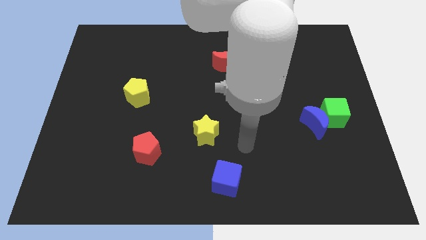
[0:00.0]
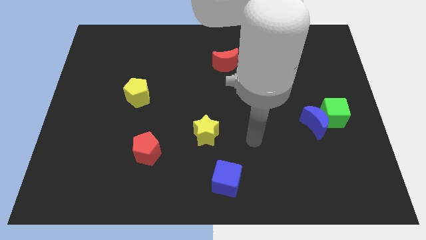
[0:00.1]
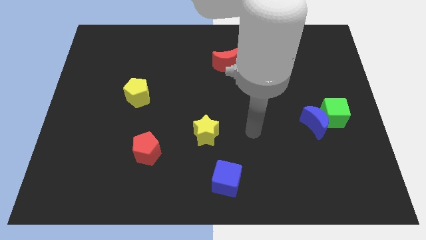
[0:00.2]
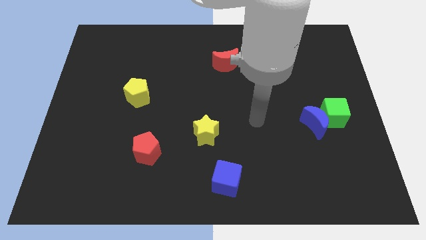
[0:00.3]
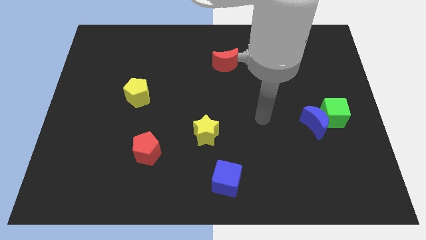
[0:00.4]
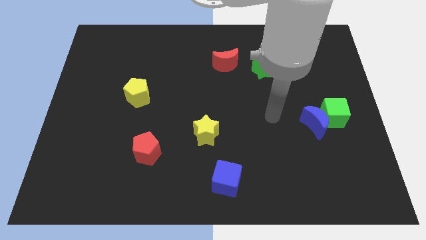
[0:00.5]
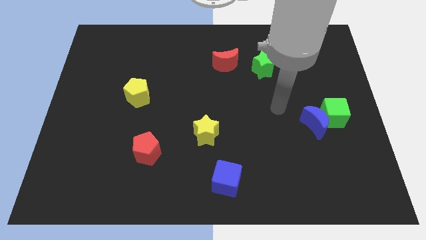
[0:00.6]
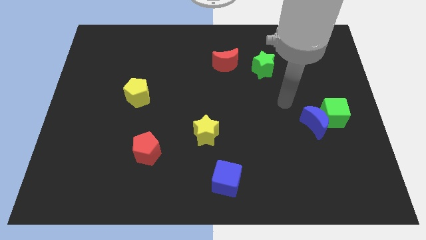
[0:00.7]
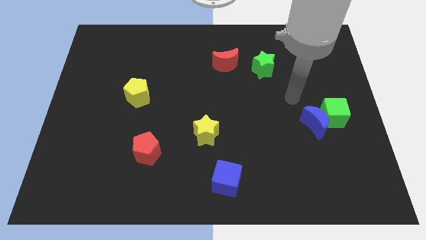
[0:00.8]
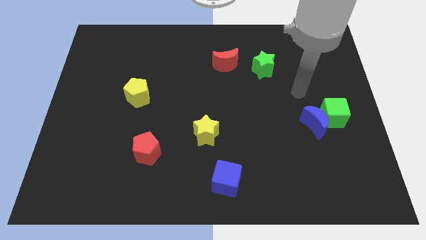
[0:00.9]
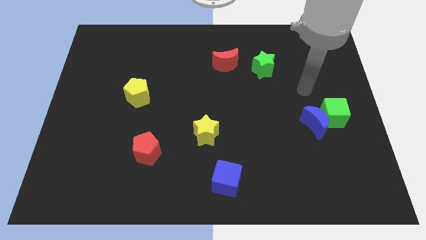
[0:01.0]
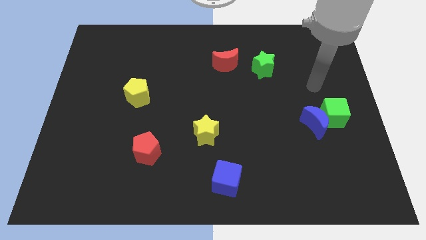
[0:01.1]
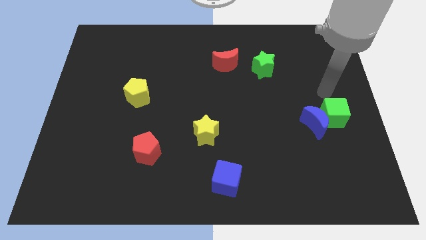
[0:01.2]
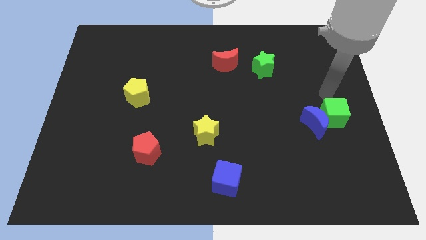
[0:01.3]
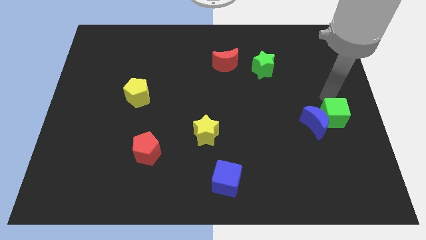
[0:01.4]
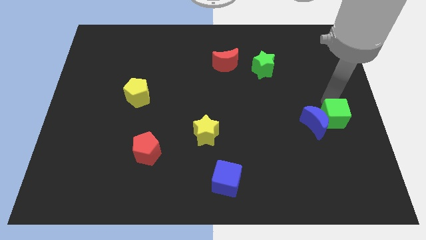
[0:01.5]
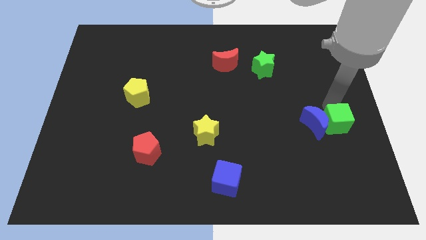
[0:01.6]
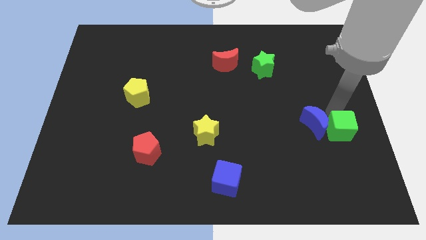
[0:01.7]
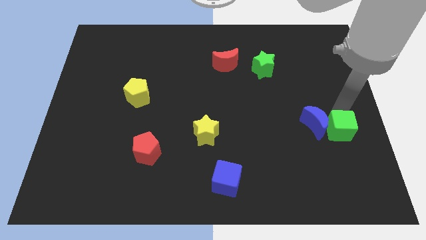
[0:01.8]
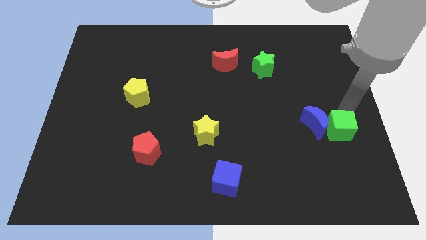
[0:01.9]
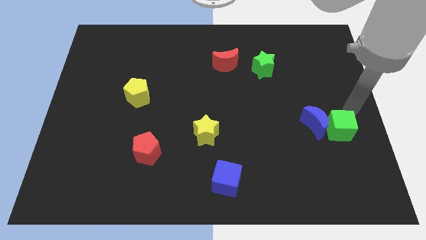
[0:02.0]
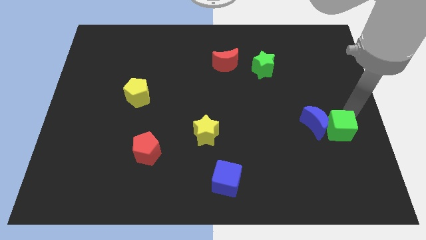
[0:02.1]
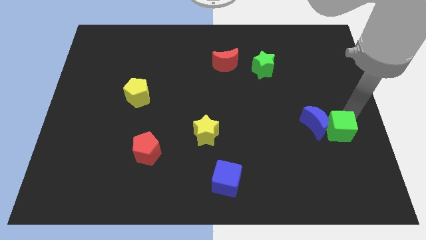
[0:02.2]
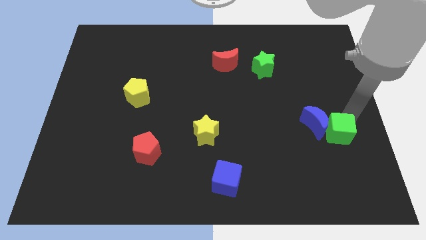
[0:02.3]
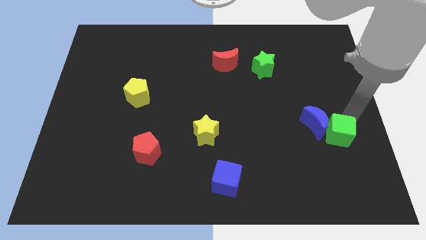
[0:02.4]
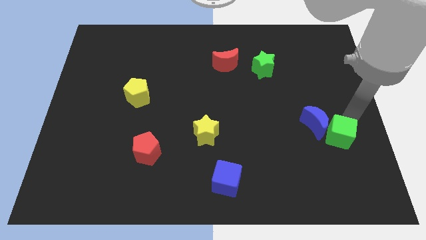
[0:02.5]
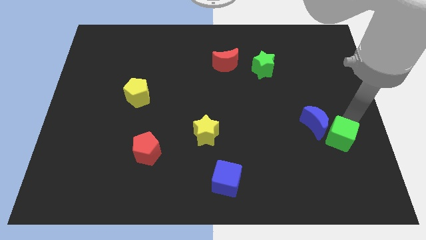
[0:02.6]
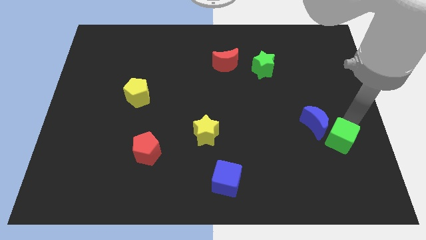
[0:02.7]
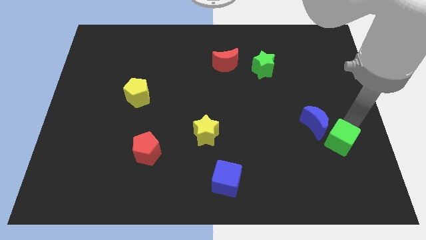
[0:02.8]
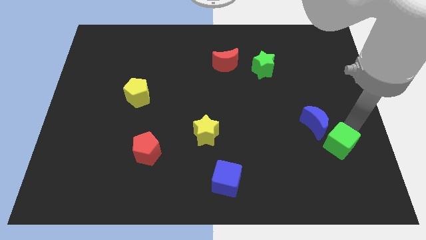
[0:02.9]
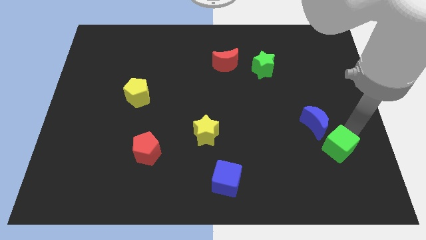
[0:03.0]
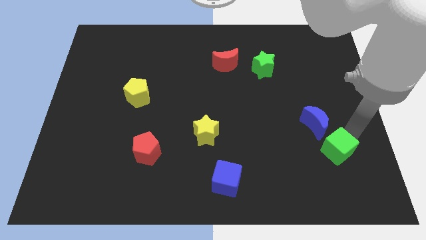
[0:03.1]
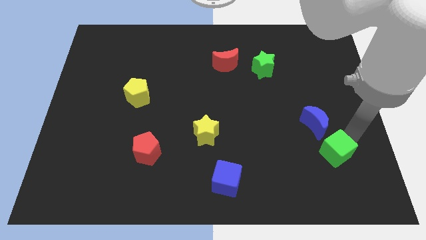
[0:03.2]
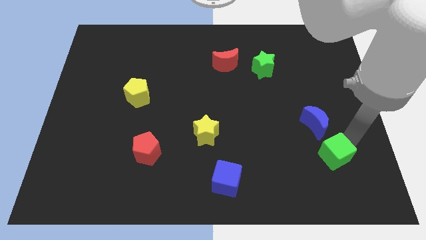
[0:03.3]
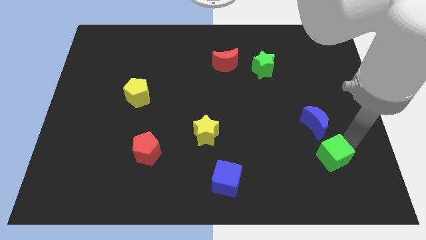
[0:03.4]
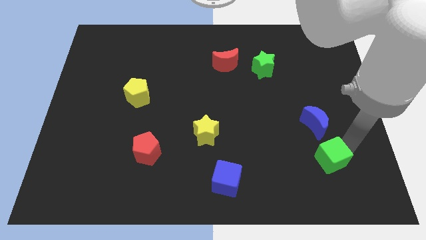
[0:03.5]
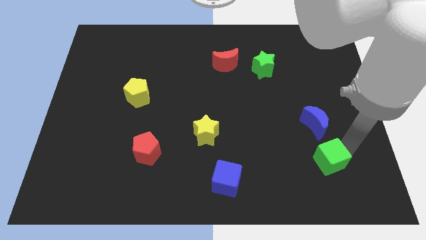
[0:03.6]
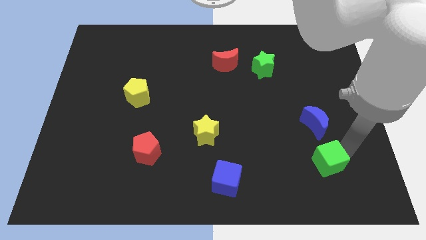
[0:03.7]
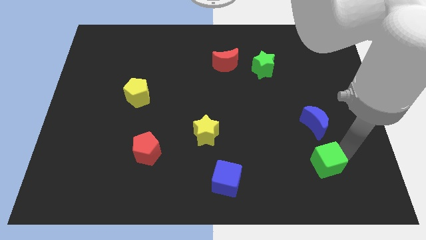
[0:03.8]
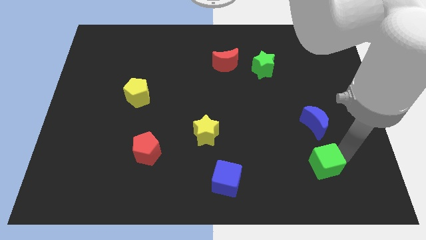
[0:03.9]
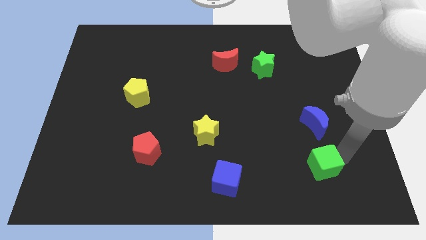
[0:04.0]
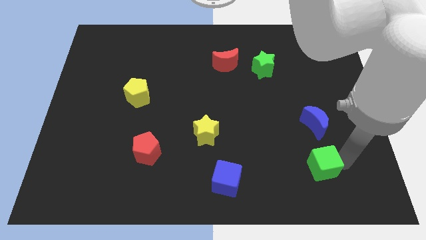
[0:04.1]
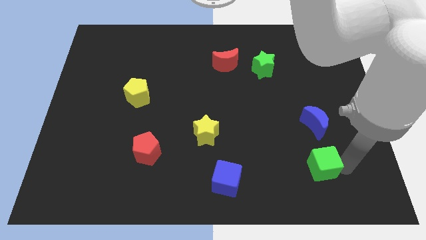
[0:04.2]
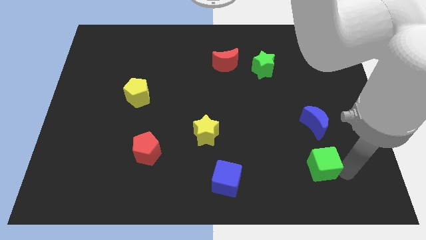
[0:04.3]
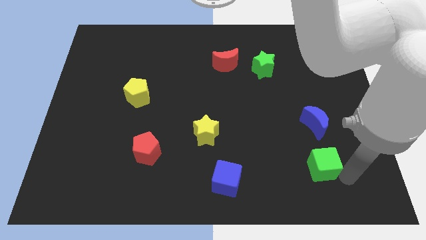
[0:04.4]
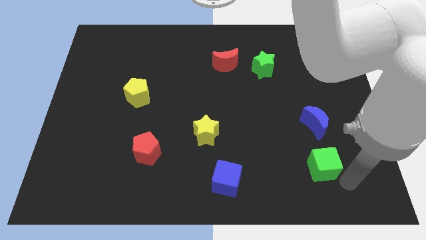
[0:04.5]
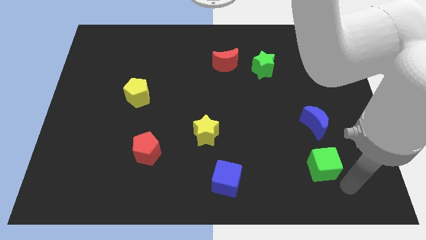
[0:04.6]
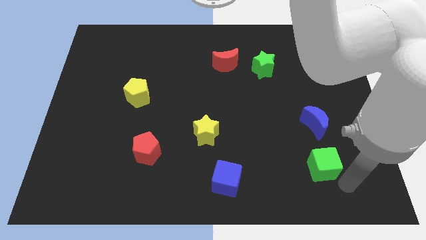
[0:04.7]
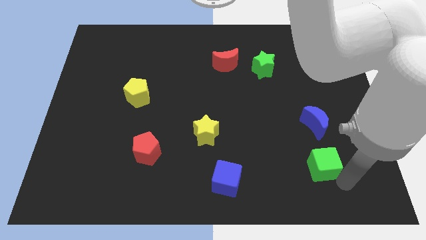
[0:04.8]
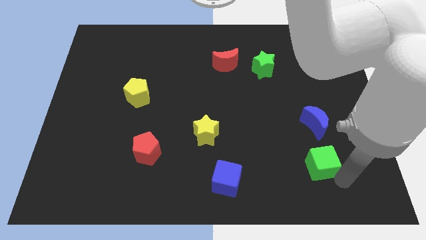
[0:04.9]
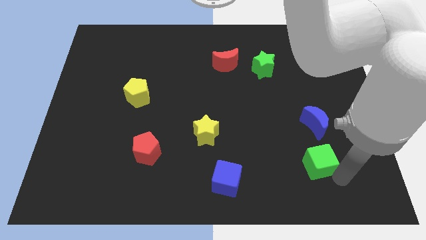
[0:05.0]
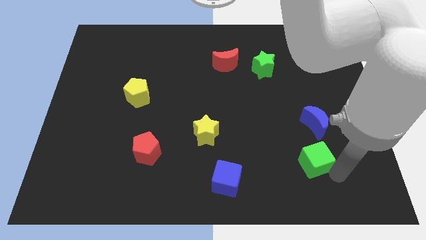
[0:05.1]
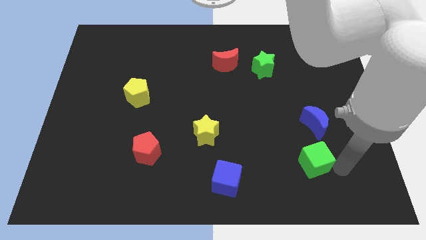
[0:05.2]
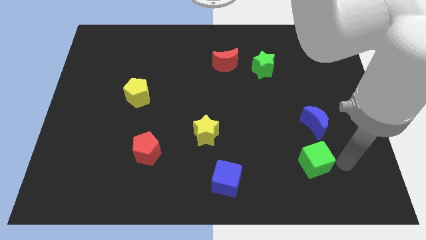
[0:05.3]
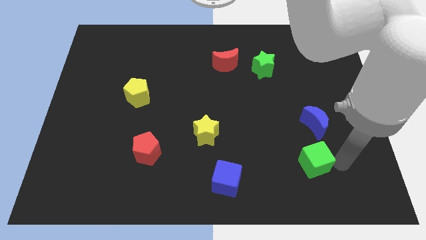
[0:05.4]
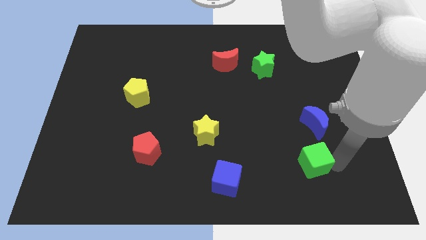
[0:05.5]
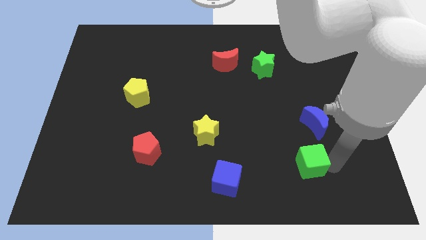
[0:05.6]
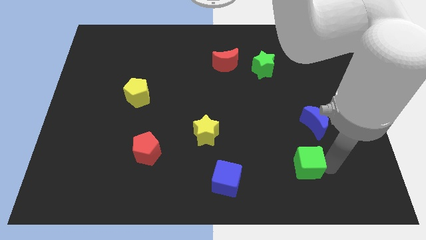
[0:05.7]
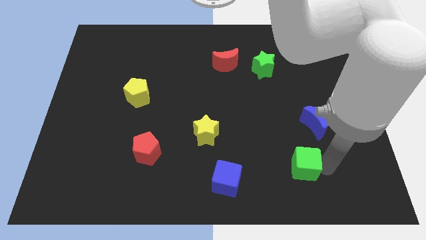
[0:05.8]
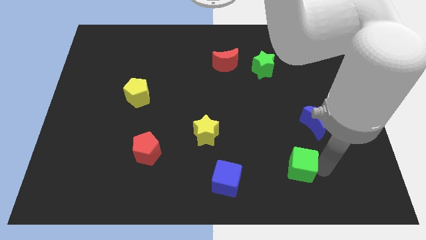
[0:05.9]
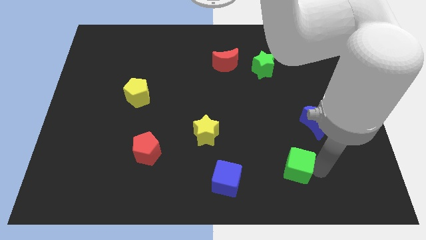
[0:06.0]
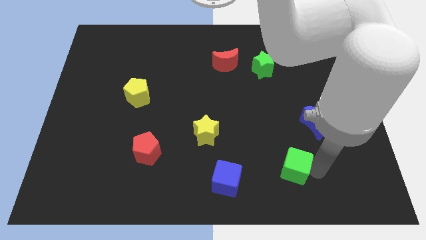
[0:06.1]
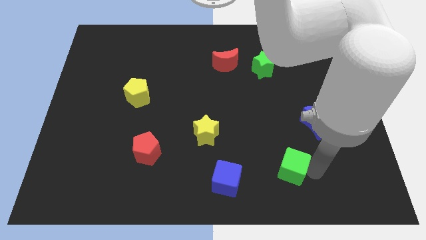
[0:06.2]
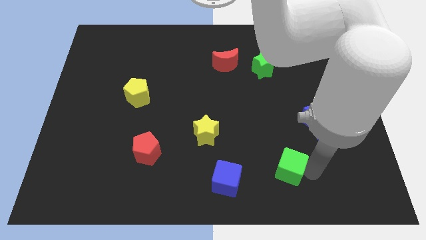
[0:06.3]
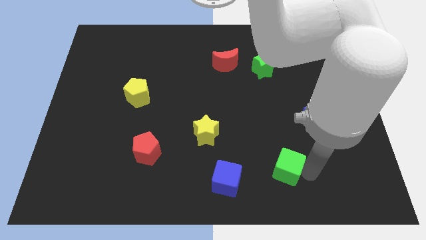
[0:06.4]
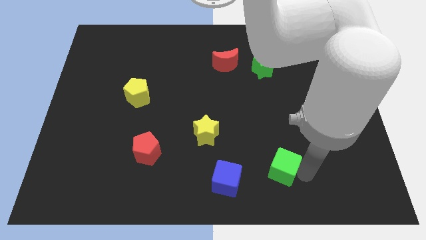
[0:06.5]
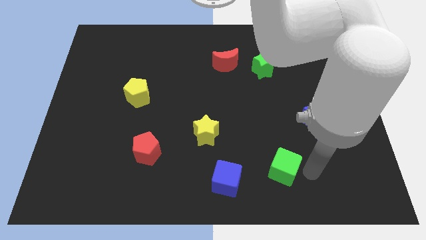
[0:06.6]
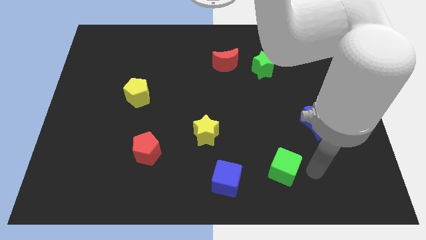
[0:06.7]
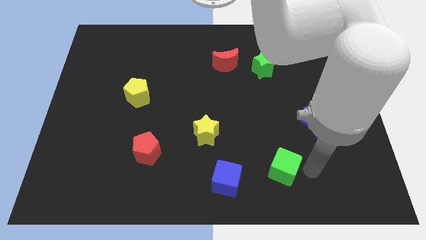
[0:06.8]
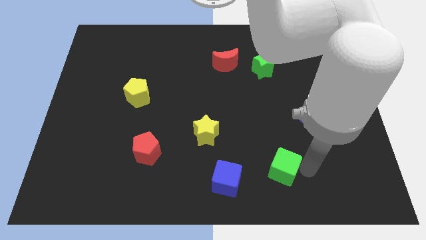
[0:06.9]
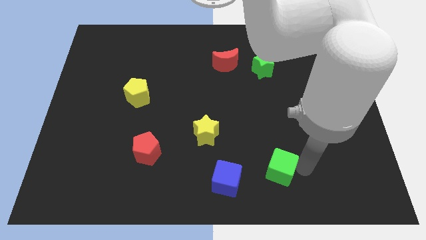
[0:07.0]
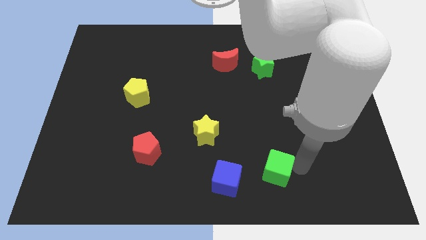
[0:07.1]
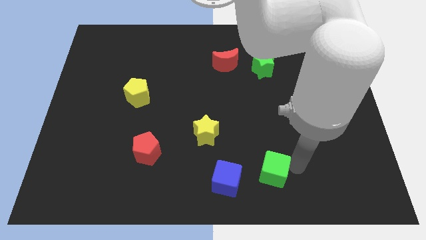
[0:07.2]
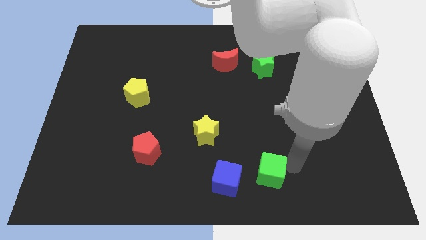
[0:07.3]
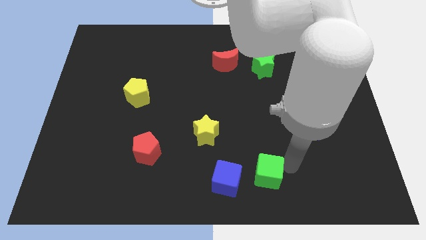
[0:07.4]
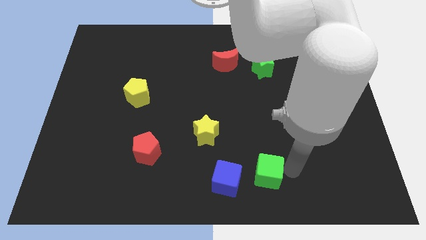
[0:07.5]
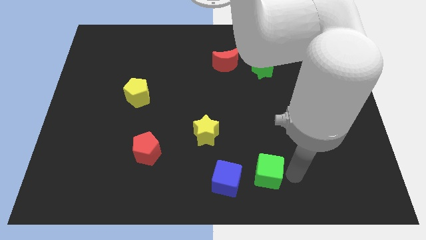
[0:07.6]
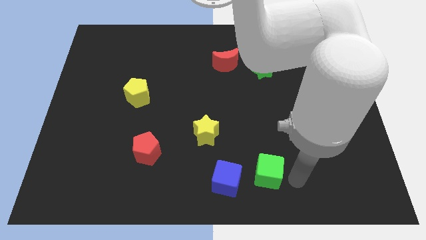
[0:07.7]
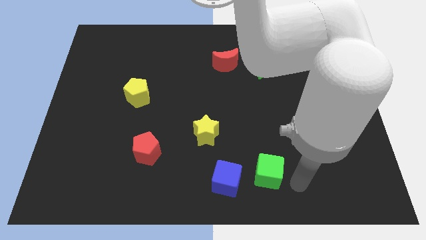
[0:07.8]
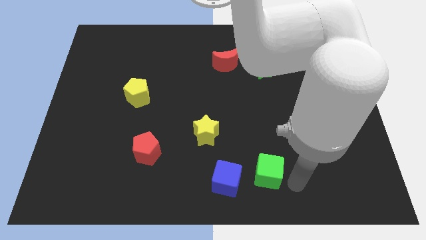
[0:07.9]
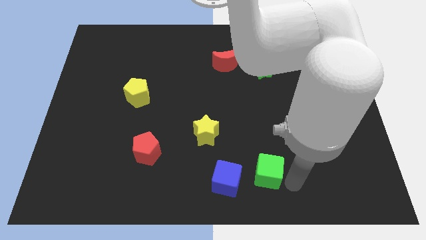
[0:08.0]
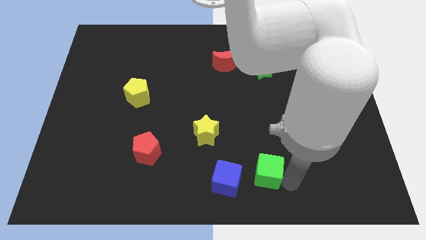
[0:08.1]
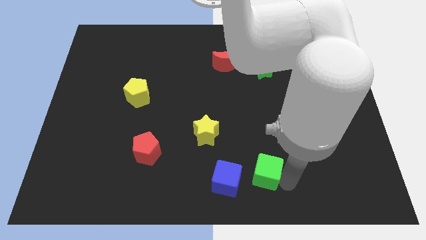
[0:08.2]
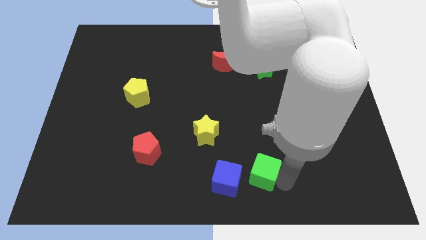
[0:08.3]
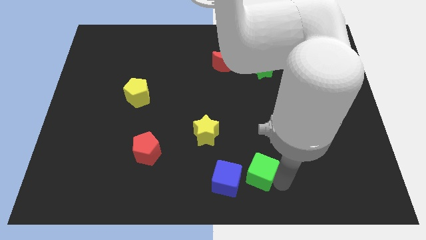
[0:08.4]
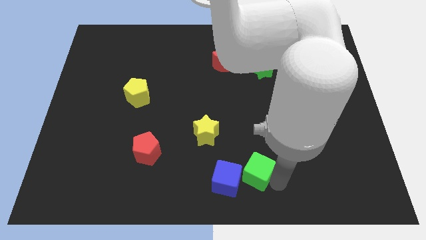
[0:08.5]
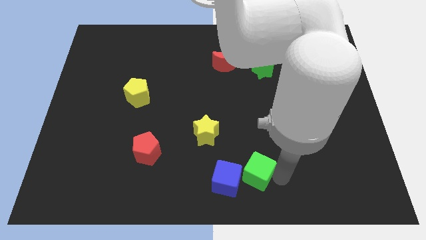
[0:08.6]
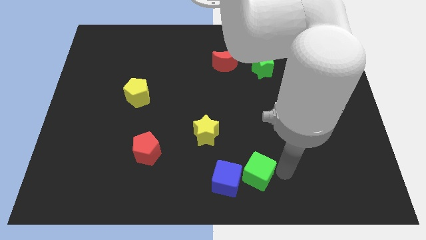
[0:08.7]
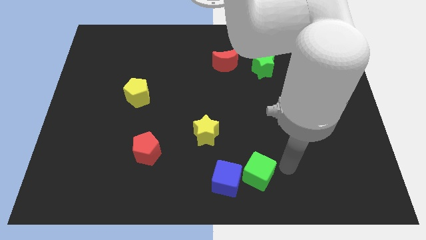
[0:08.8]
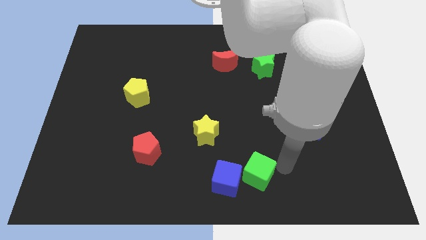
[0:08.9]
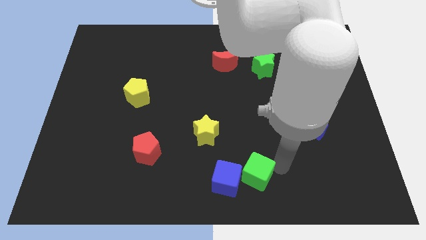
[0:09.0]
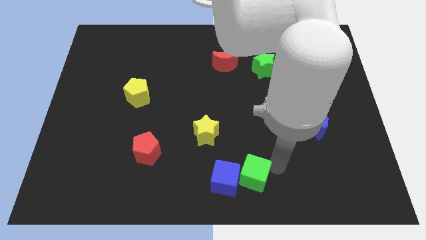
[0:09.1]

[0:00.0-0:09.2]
slide the green cube close to the blue cube
